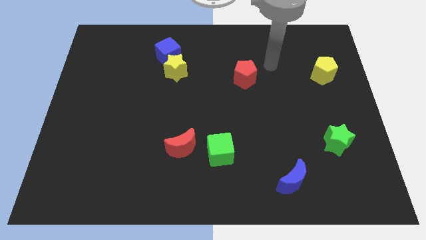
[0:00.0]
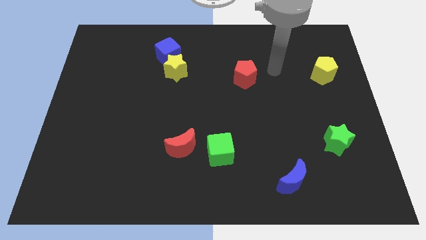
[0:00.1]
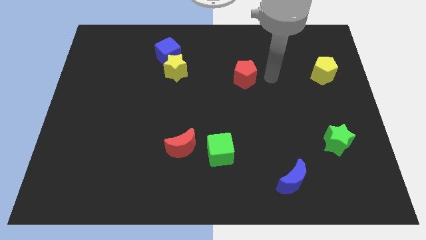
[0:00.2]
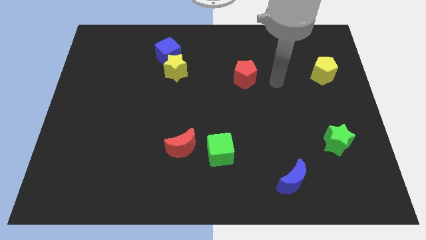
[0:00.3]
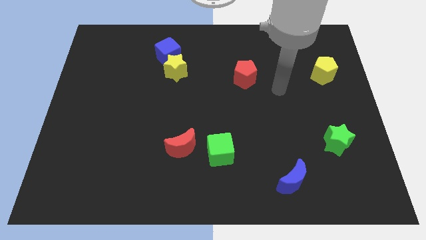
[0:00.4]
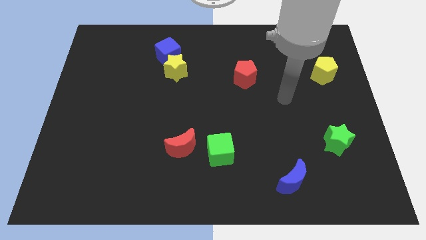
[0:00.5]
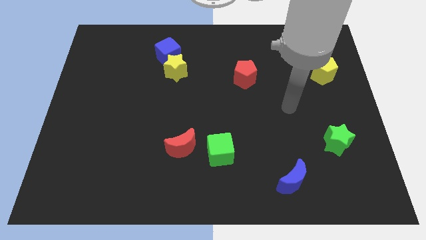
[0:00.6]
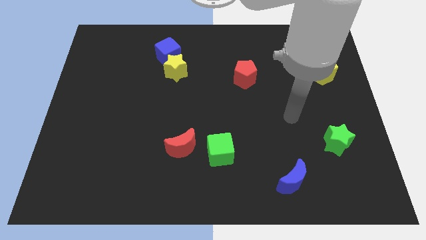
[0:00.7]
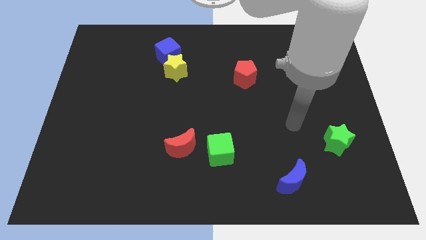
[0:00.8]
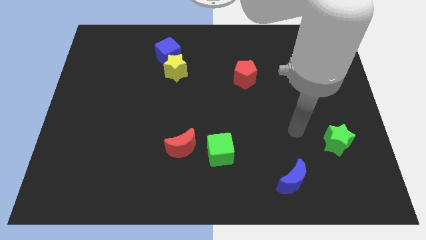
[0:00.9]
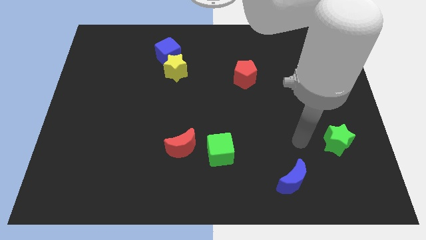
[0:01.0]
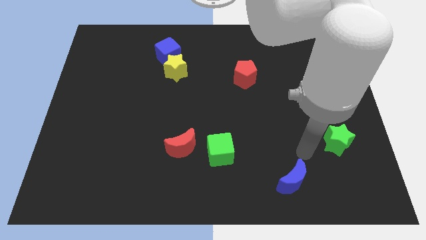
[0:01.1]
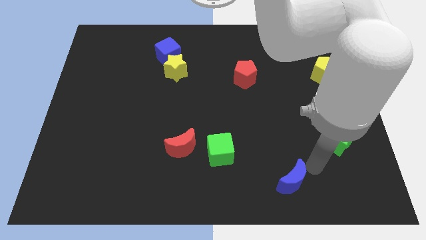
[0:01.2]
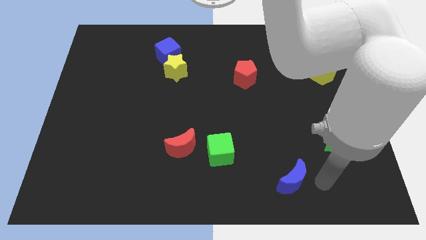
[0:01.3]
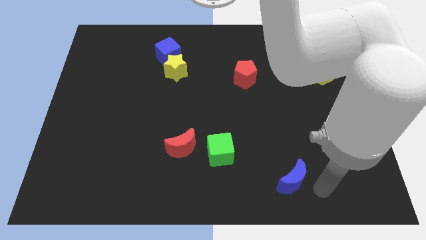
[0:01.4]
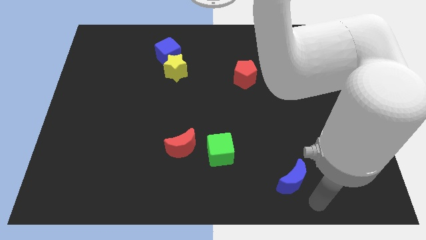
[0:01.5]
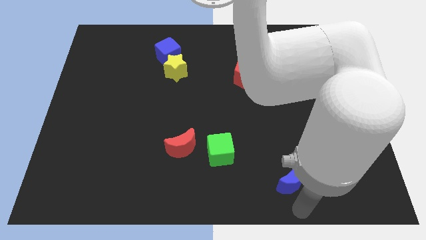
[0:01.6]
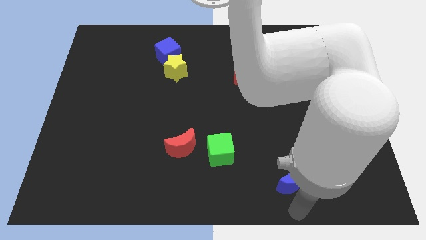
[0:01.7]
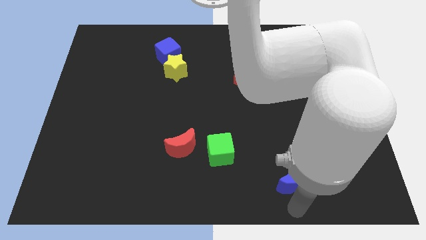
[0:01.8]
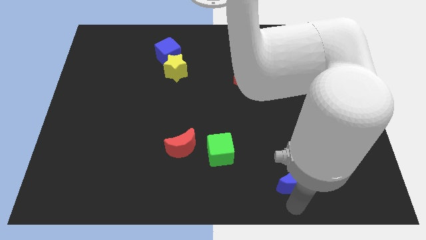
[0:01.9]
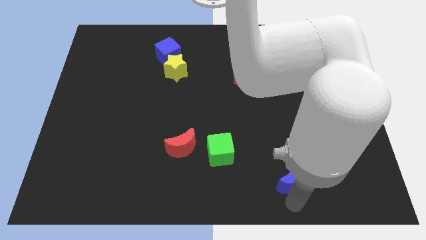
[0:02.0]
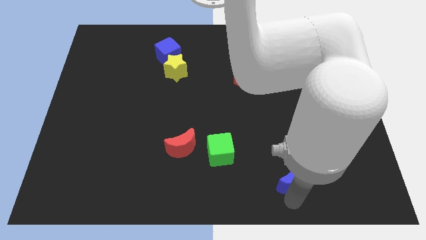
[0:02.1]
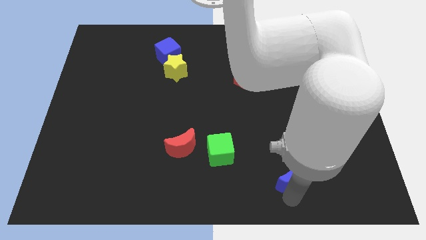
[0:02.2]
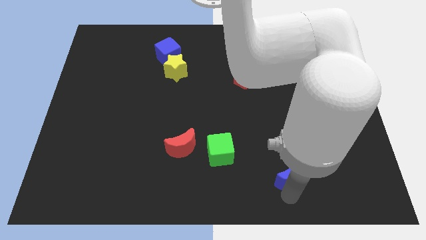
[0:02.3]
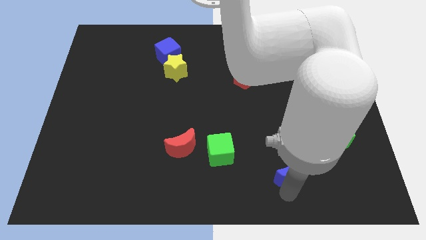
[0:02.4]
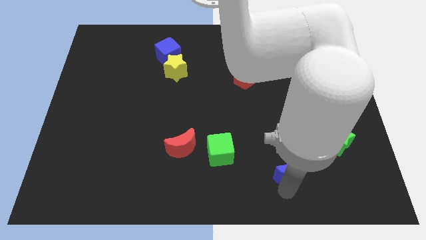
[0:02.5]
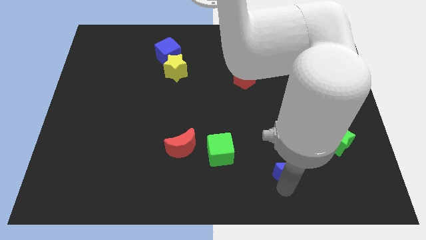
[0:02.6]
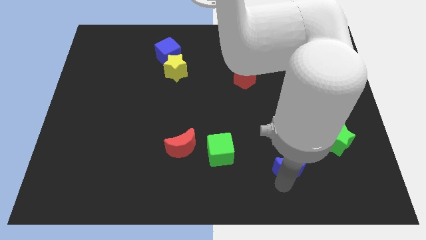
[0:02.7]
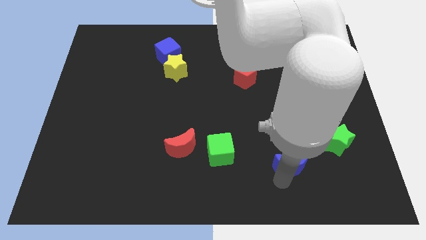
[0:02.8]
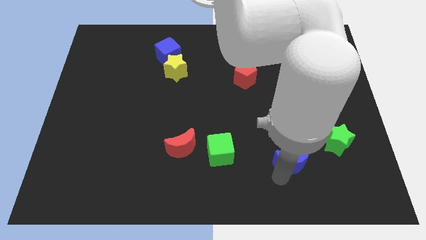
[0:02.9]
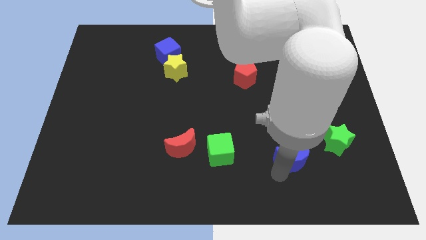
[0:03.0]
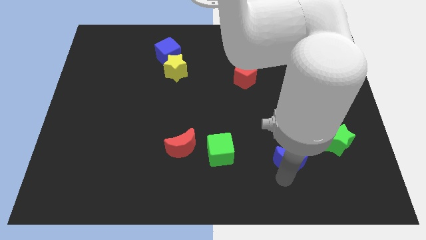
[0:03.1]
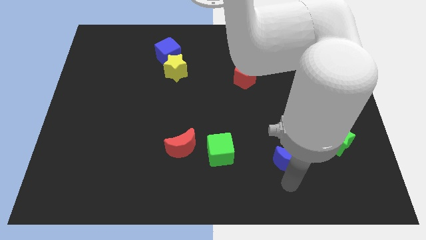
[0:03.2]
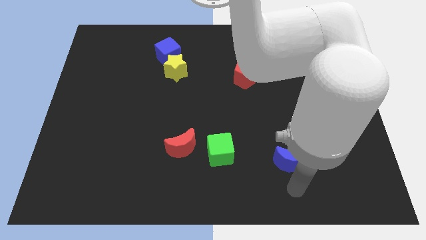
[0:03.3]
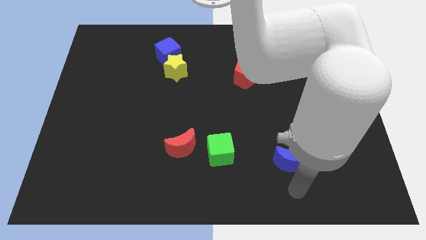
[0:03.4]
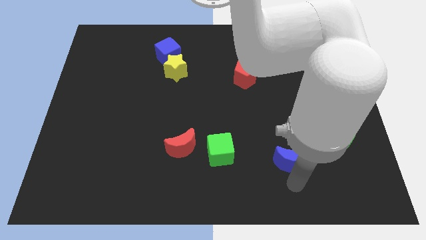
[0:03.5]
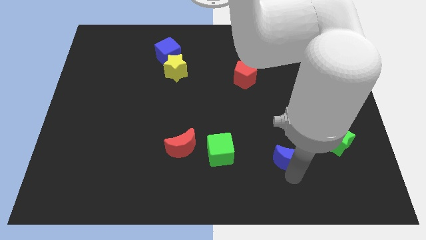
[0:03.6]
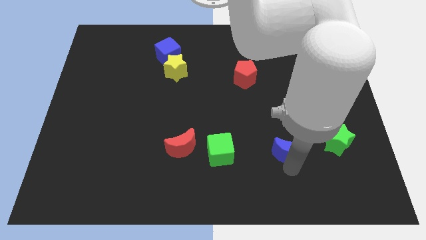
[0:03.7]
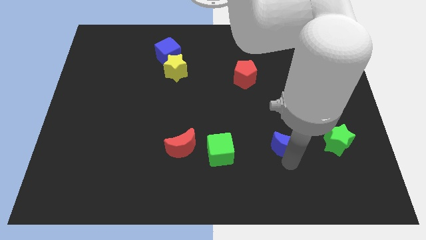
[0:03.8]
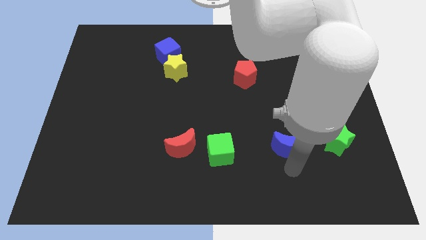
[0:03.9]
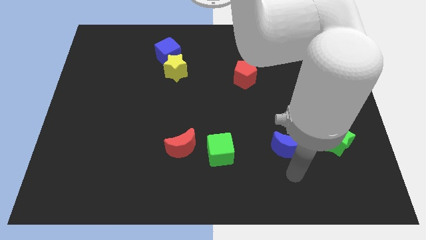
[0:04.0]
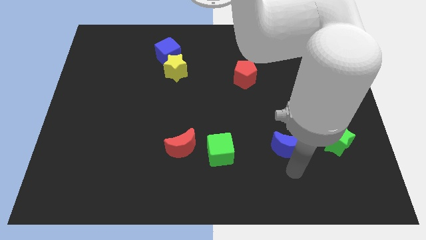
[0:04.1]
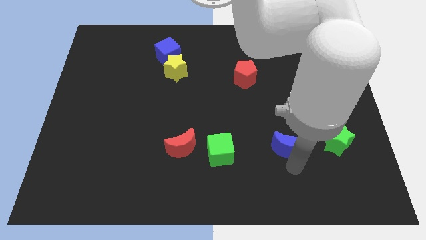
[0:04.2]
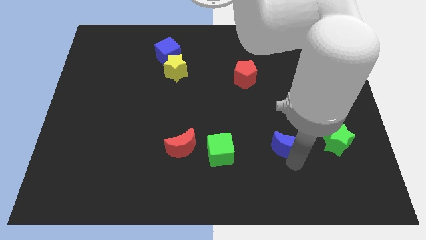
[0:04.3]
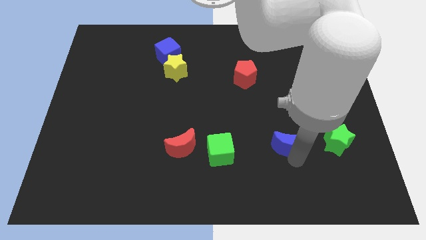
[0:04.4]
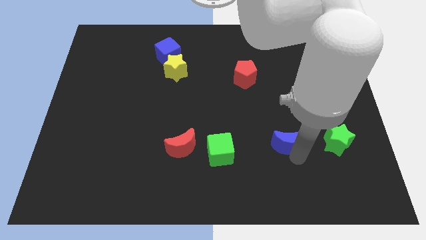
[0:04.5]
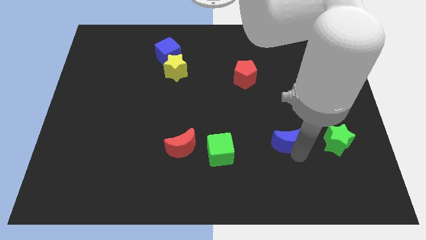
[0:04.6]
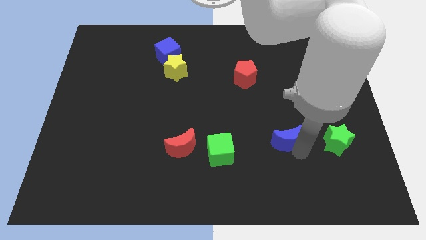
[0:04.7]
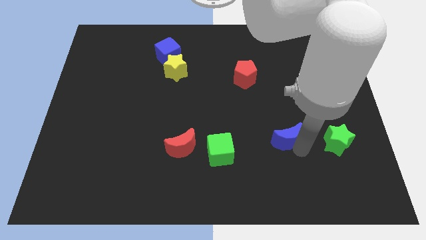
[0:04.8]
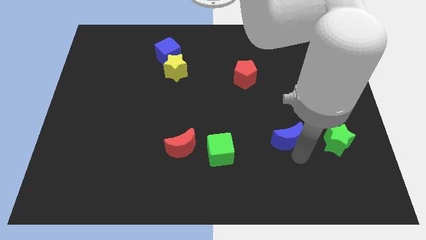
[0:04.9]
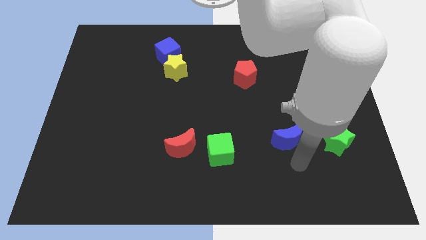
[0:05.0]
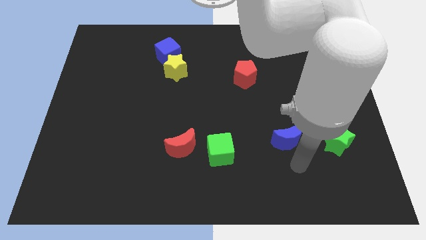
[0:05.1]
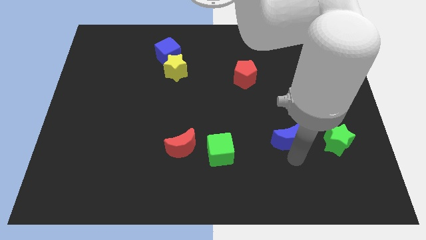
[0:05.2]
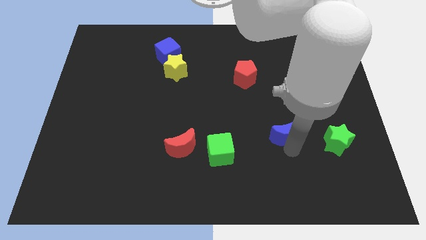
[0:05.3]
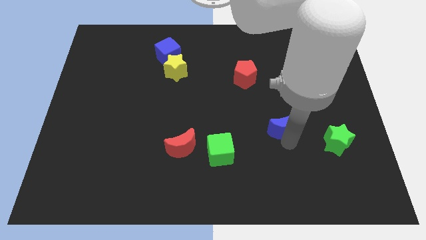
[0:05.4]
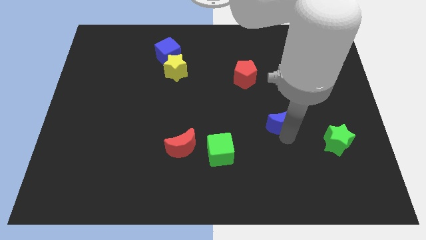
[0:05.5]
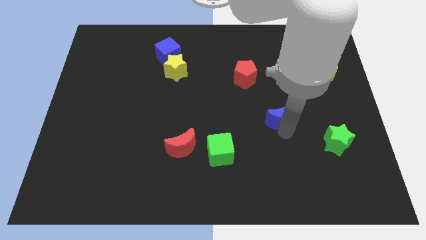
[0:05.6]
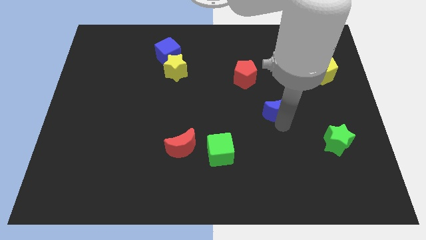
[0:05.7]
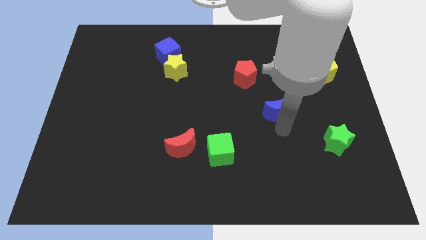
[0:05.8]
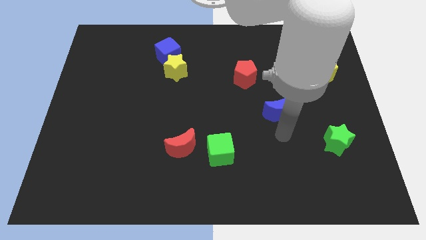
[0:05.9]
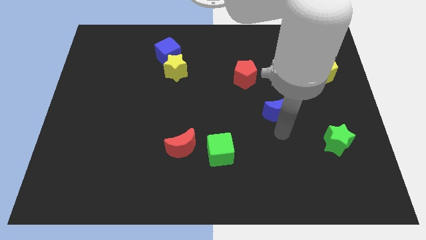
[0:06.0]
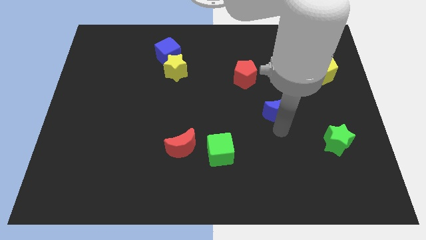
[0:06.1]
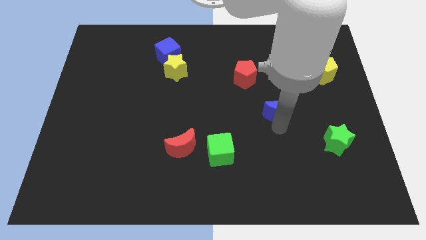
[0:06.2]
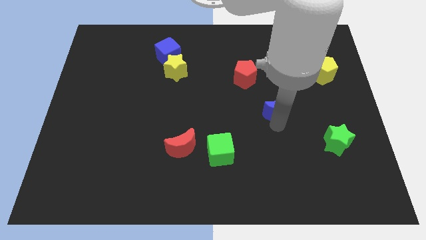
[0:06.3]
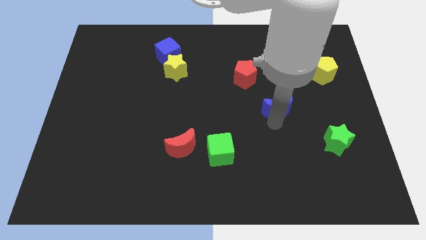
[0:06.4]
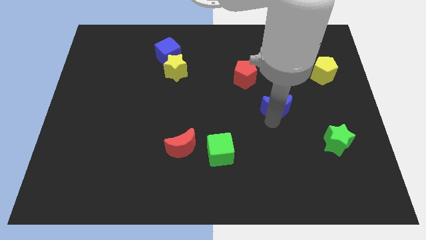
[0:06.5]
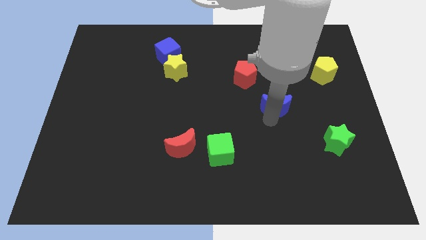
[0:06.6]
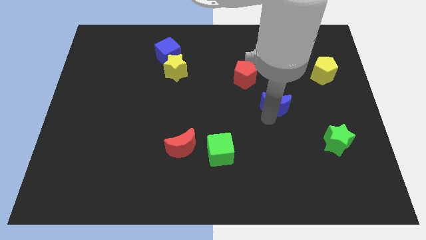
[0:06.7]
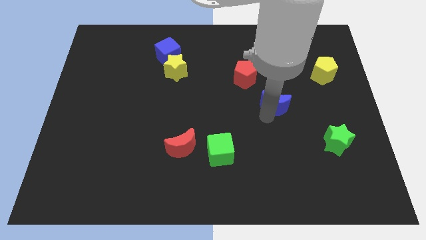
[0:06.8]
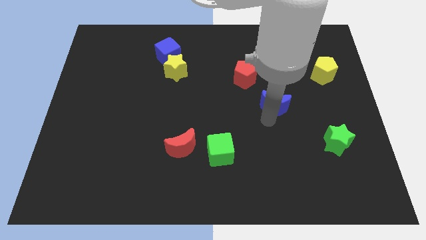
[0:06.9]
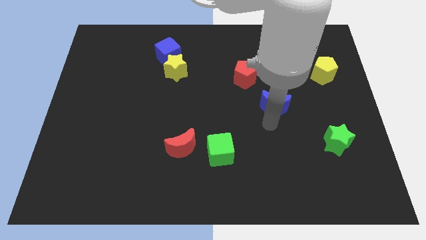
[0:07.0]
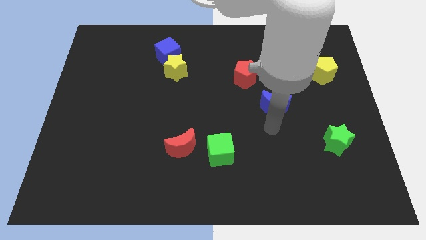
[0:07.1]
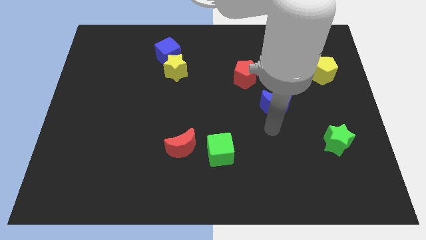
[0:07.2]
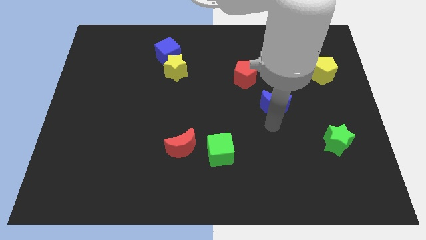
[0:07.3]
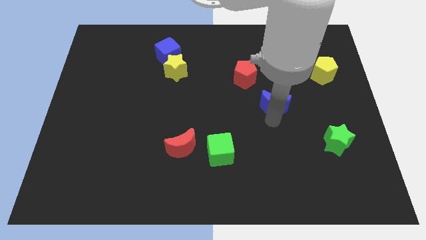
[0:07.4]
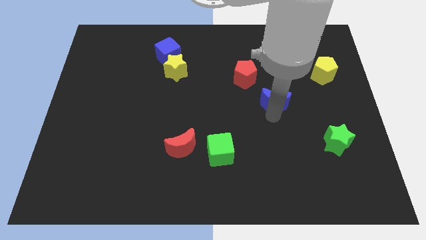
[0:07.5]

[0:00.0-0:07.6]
slide the blue moon upwards
